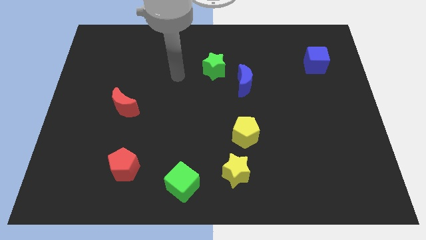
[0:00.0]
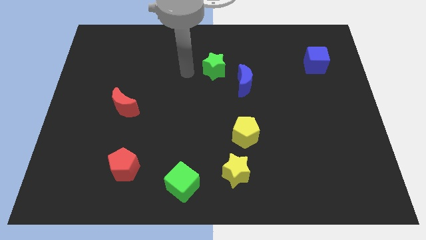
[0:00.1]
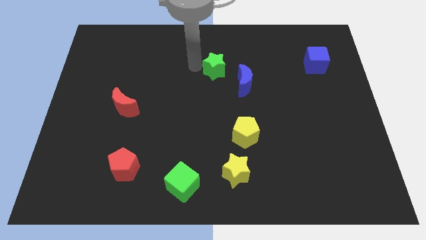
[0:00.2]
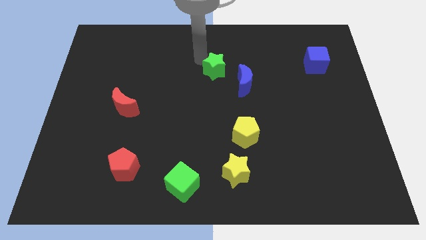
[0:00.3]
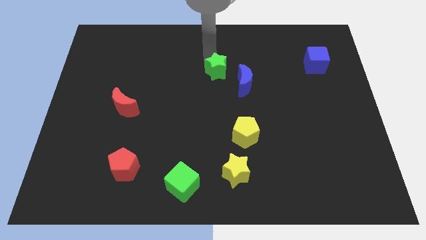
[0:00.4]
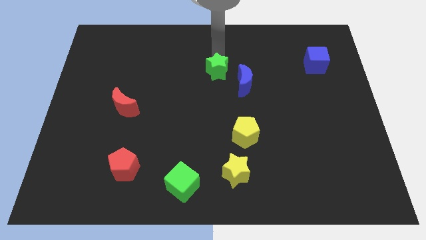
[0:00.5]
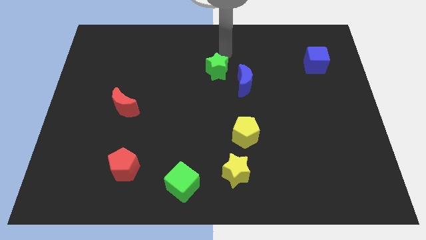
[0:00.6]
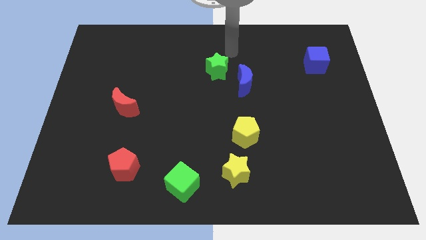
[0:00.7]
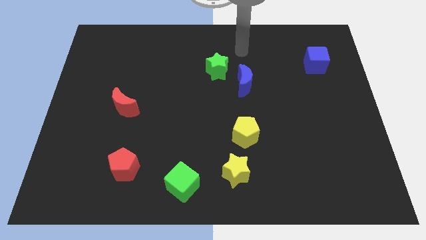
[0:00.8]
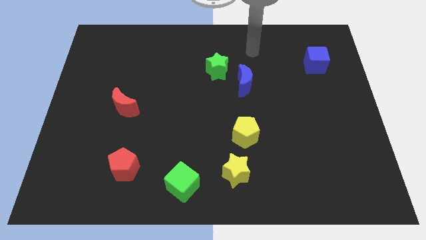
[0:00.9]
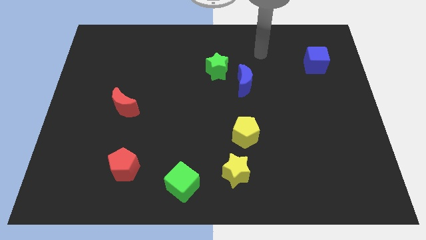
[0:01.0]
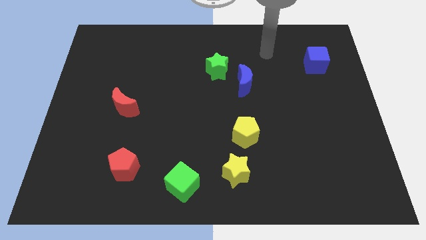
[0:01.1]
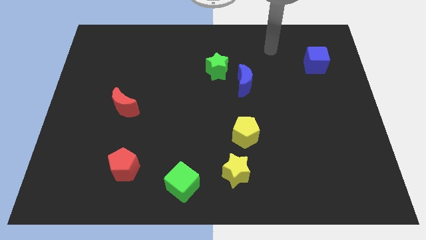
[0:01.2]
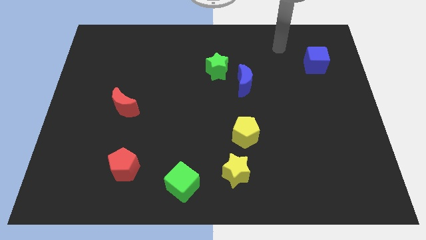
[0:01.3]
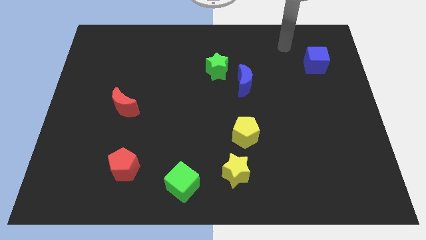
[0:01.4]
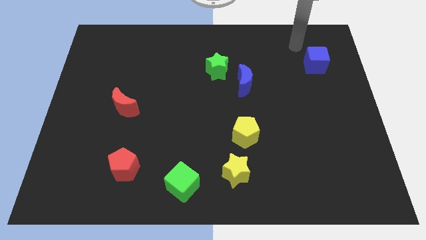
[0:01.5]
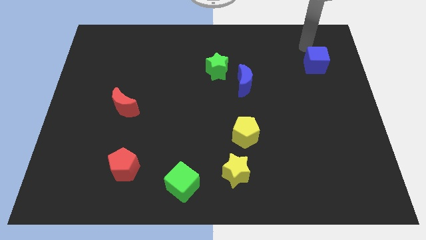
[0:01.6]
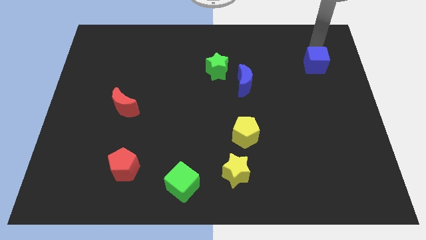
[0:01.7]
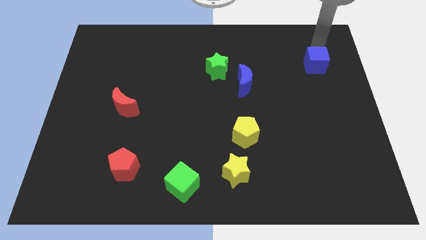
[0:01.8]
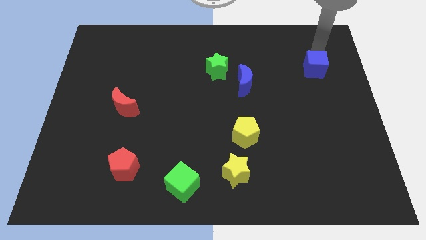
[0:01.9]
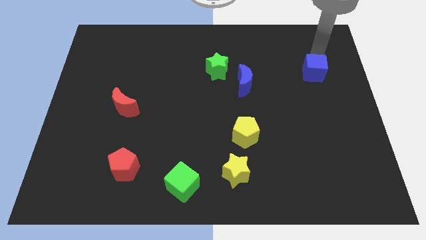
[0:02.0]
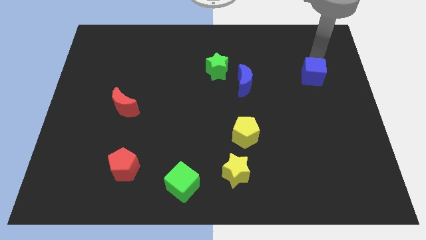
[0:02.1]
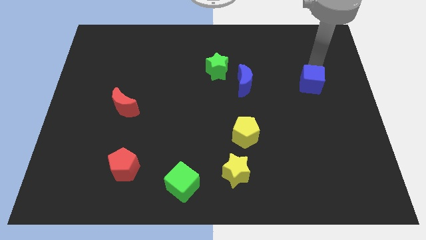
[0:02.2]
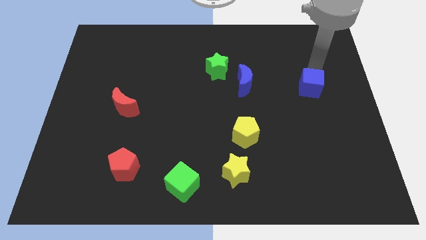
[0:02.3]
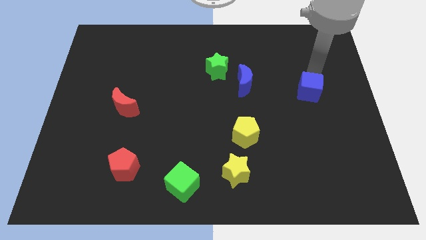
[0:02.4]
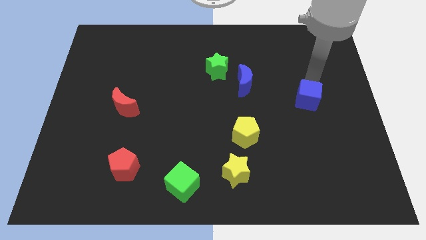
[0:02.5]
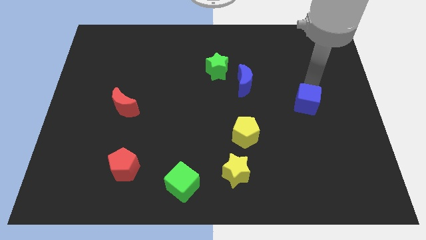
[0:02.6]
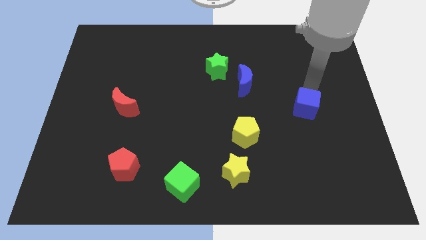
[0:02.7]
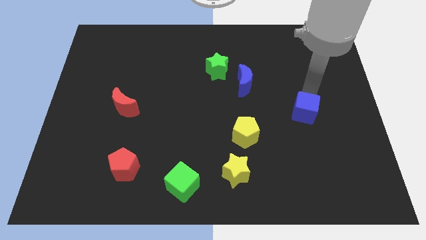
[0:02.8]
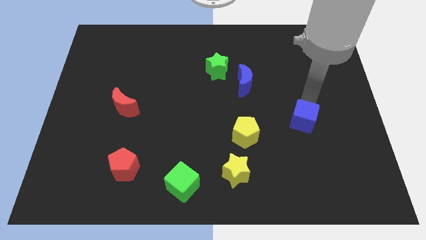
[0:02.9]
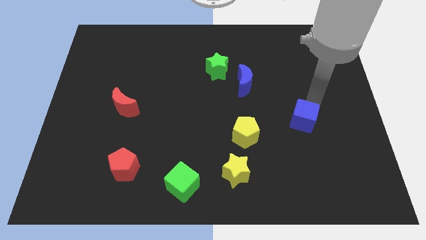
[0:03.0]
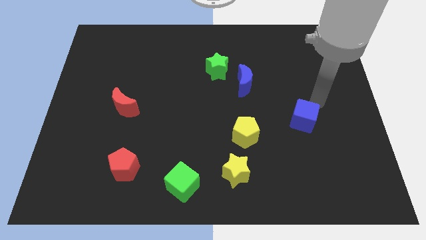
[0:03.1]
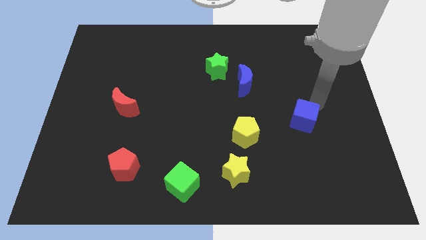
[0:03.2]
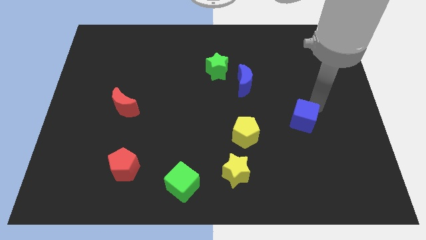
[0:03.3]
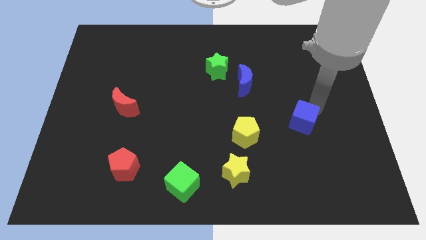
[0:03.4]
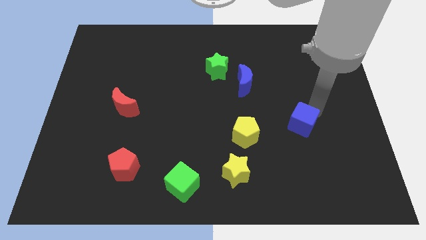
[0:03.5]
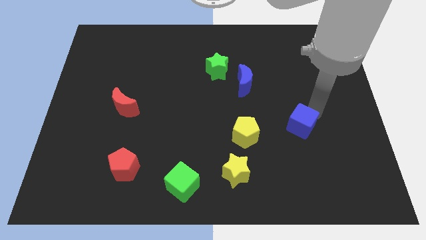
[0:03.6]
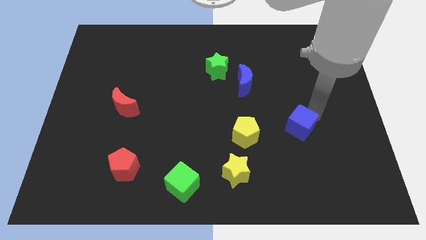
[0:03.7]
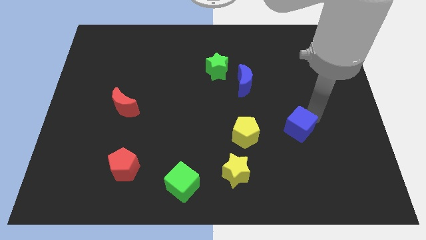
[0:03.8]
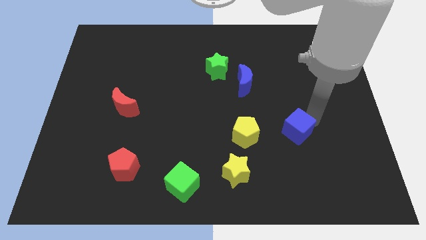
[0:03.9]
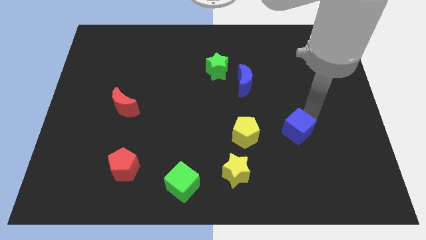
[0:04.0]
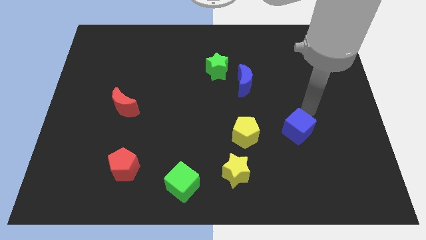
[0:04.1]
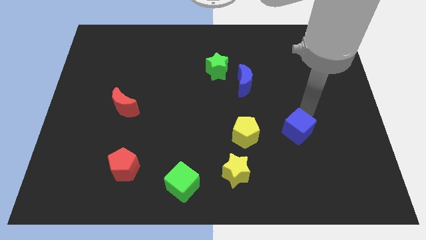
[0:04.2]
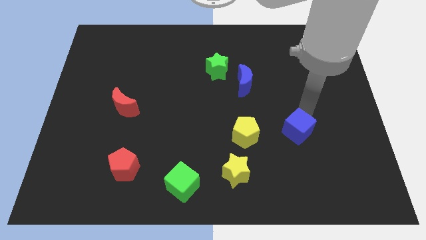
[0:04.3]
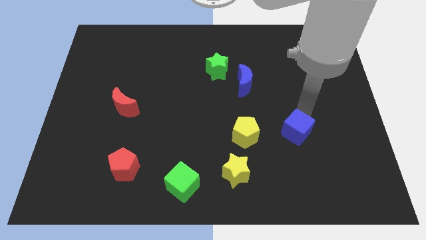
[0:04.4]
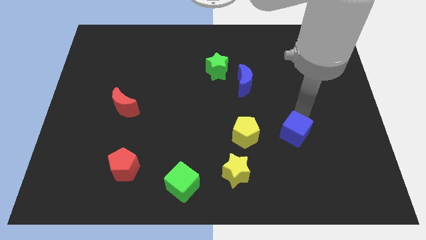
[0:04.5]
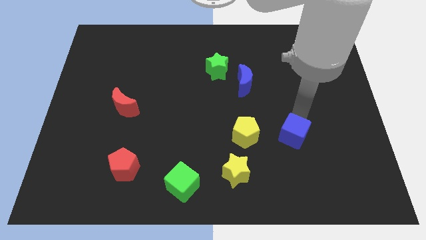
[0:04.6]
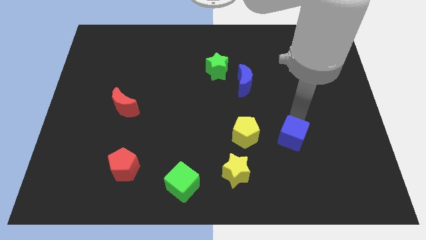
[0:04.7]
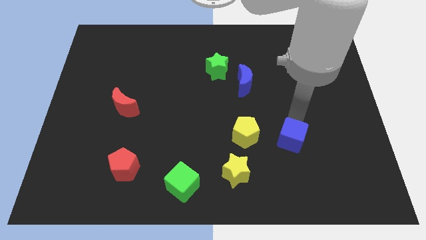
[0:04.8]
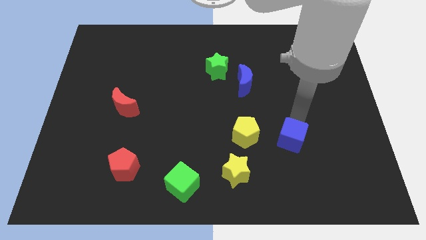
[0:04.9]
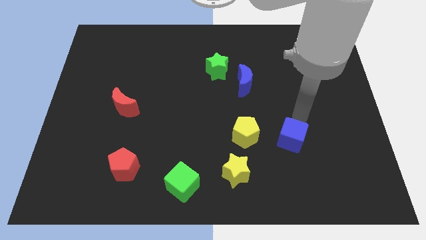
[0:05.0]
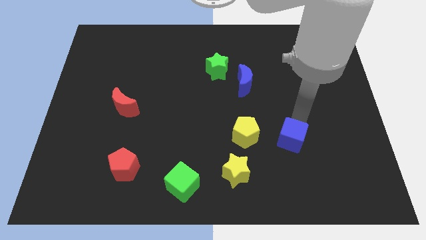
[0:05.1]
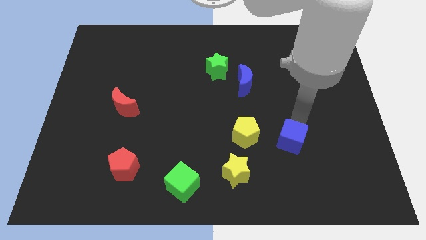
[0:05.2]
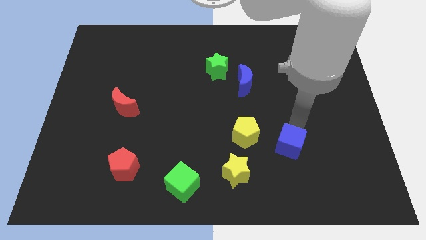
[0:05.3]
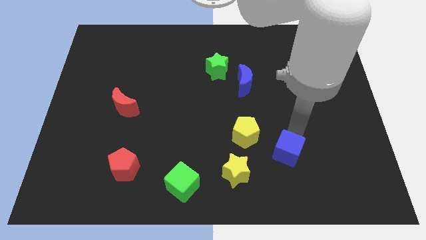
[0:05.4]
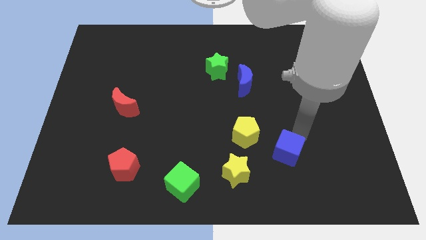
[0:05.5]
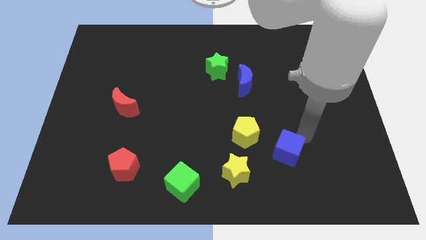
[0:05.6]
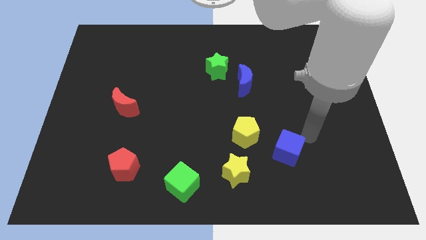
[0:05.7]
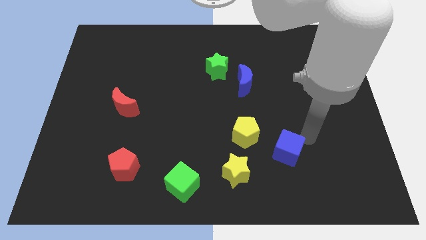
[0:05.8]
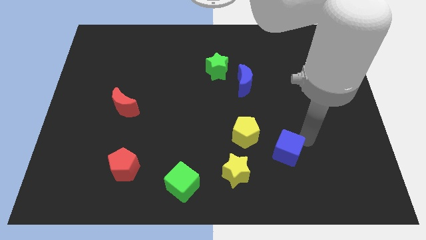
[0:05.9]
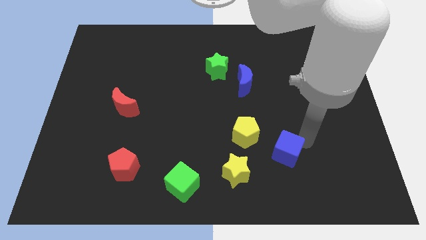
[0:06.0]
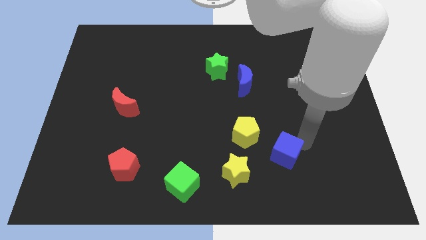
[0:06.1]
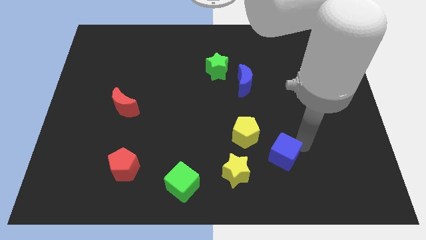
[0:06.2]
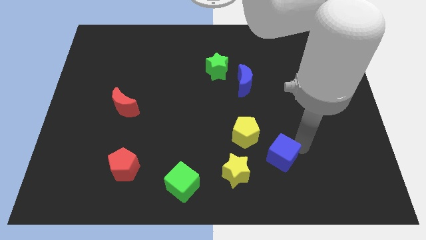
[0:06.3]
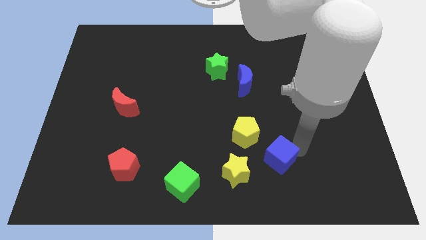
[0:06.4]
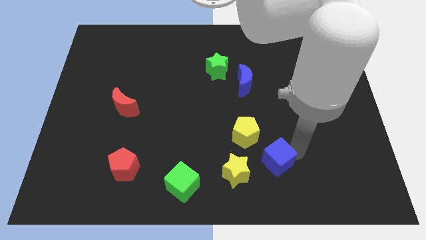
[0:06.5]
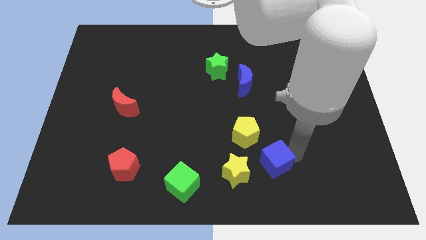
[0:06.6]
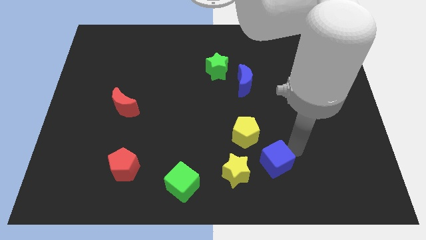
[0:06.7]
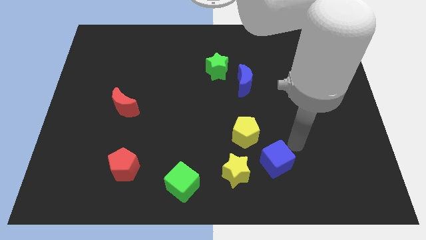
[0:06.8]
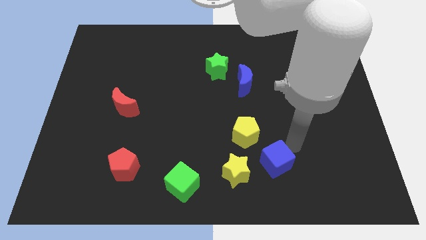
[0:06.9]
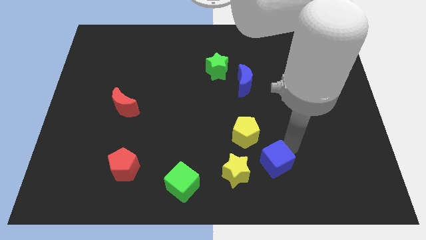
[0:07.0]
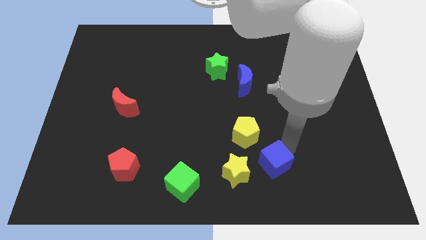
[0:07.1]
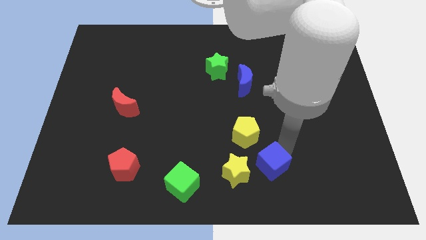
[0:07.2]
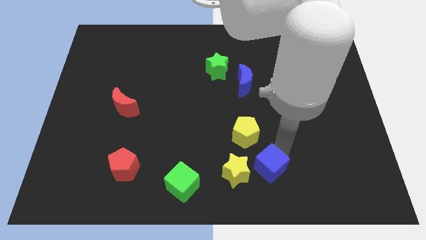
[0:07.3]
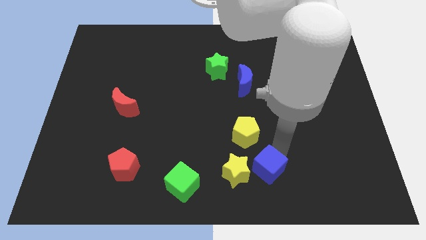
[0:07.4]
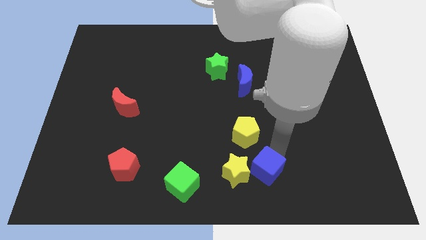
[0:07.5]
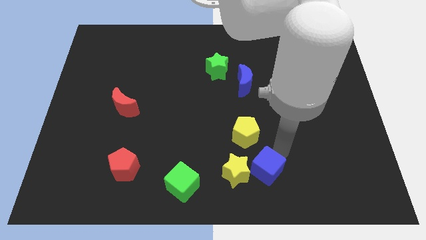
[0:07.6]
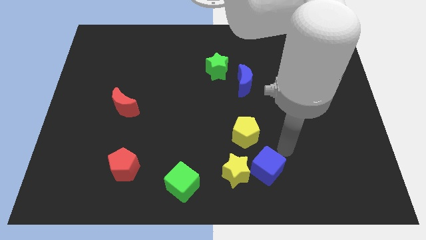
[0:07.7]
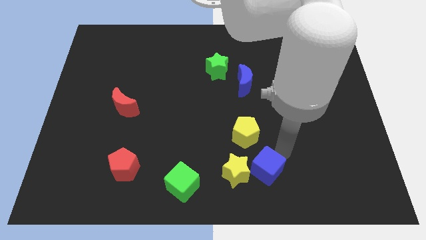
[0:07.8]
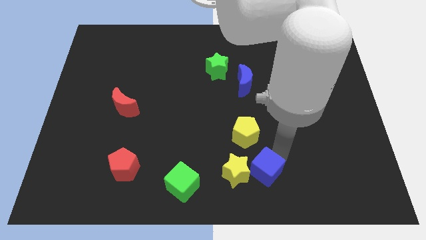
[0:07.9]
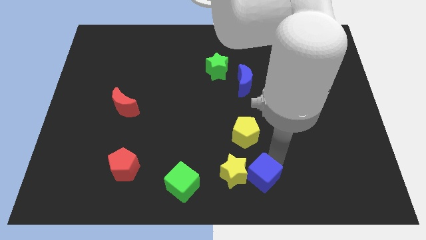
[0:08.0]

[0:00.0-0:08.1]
push the blue cube to the bottom
